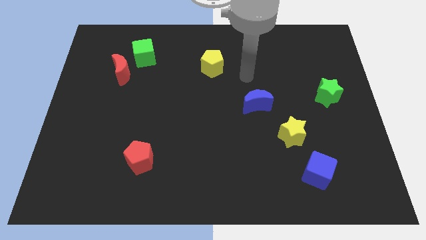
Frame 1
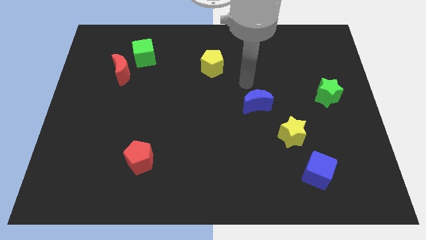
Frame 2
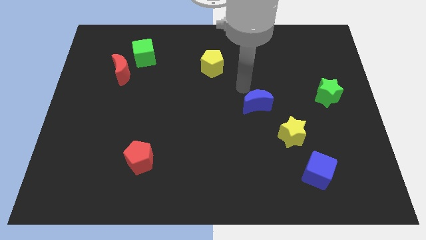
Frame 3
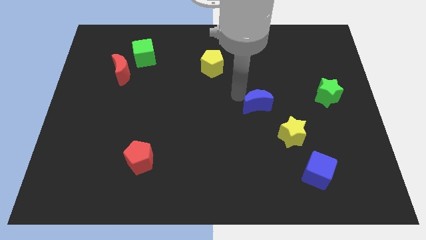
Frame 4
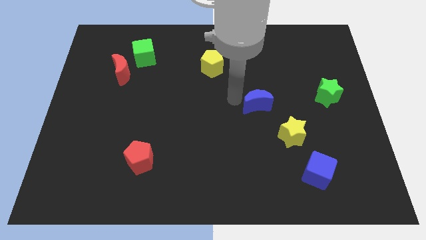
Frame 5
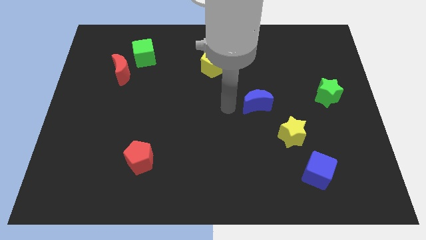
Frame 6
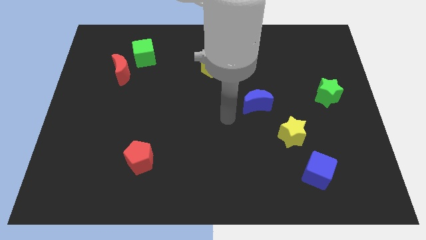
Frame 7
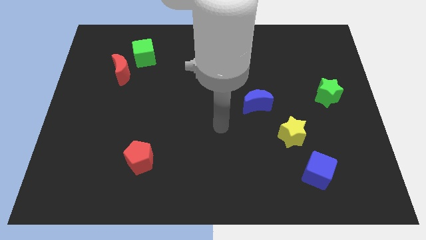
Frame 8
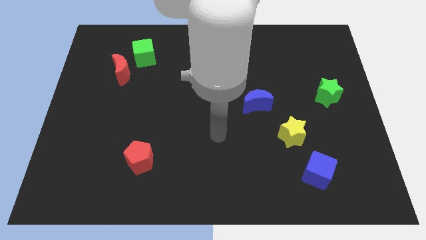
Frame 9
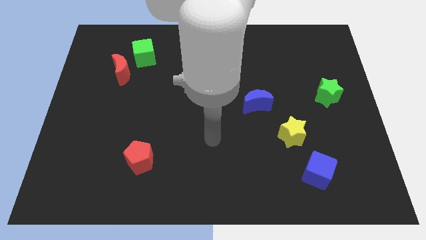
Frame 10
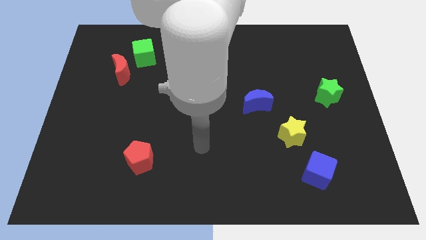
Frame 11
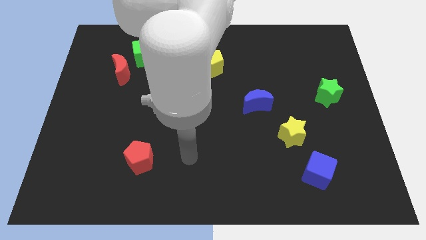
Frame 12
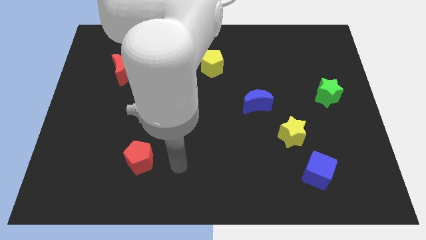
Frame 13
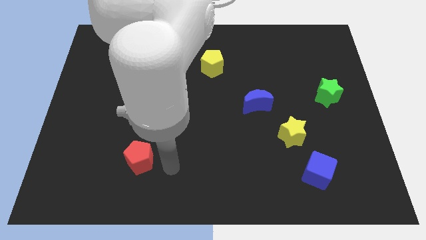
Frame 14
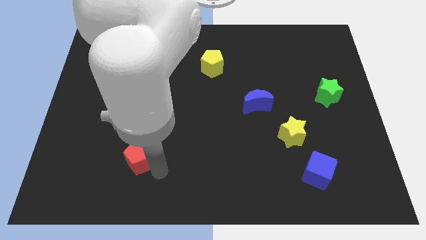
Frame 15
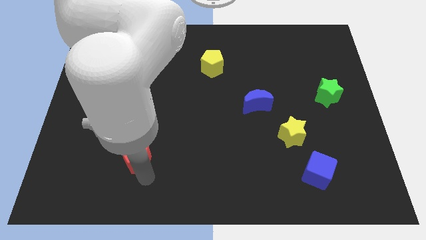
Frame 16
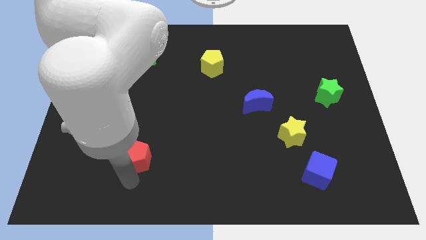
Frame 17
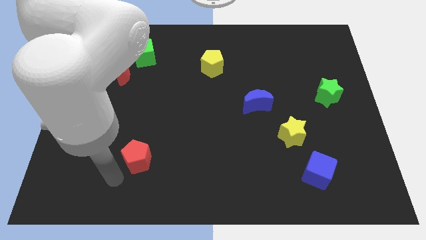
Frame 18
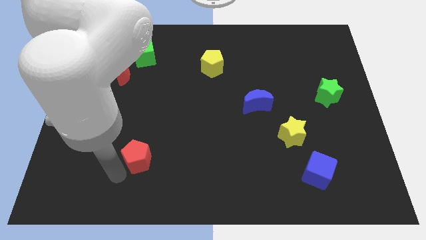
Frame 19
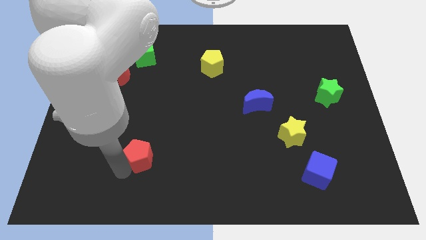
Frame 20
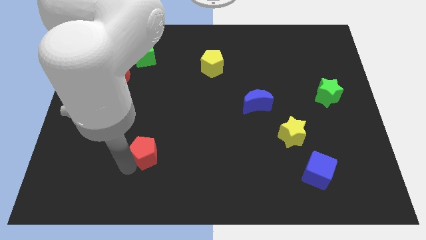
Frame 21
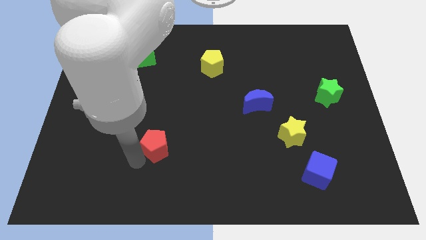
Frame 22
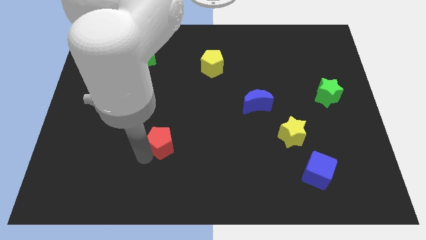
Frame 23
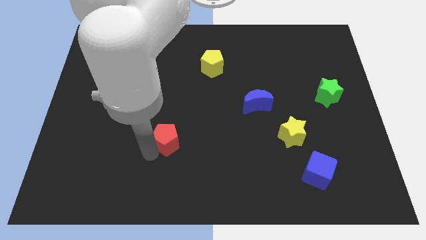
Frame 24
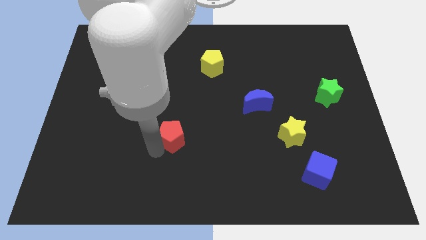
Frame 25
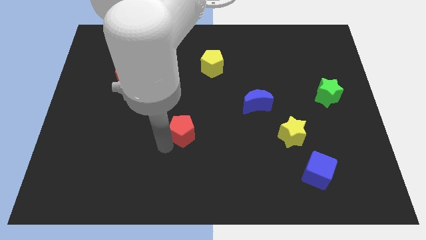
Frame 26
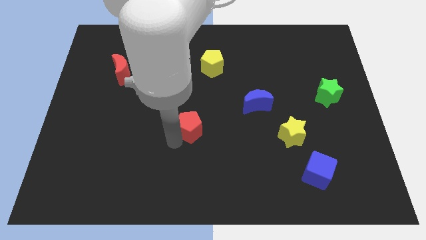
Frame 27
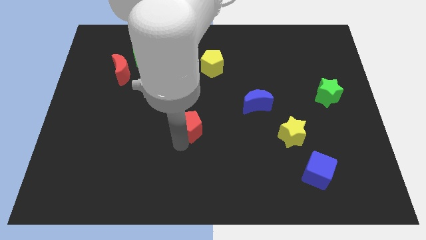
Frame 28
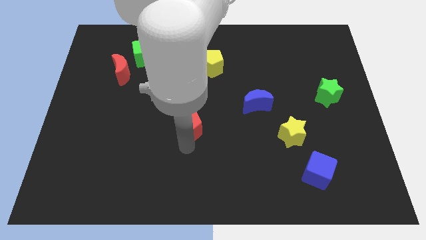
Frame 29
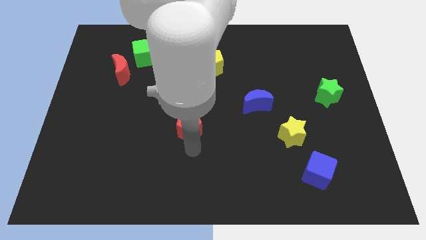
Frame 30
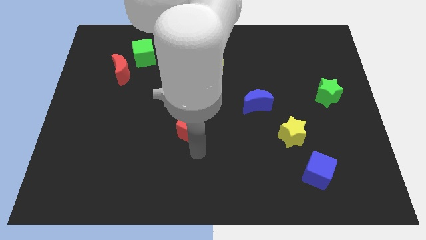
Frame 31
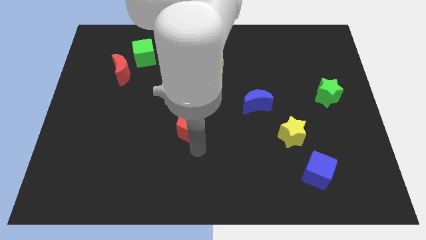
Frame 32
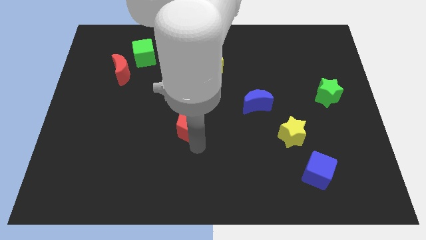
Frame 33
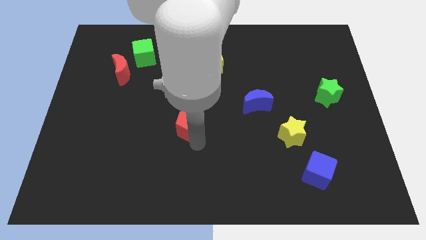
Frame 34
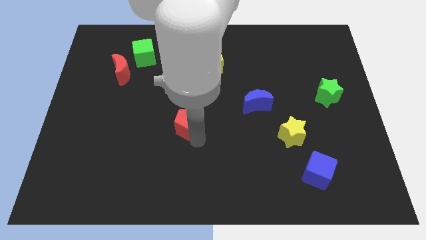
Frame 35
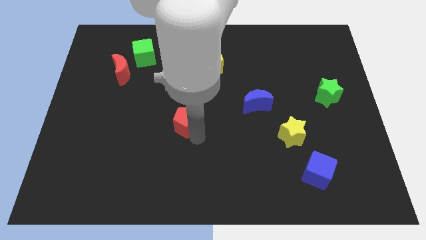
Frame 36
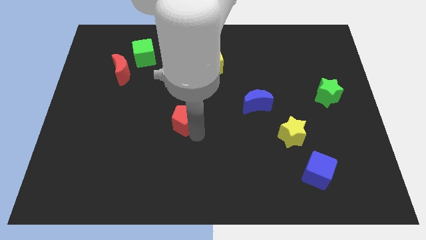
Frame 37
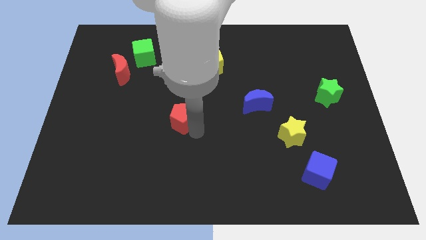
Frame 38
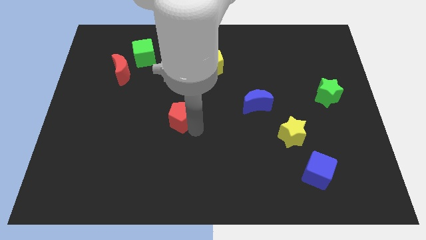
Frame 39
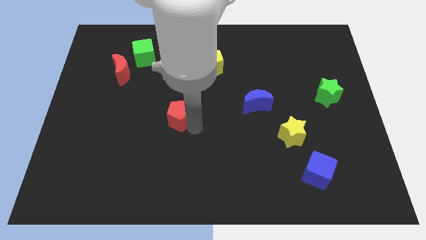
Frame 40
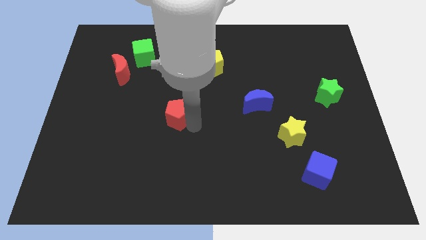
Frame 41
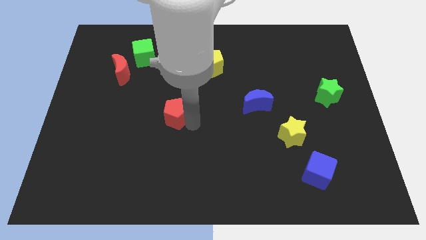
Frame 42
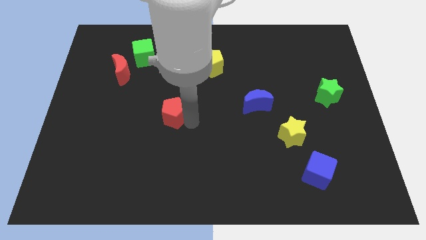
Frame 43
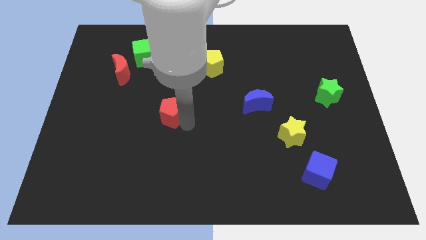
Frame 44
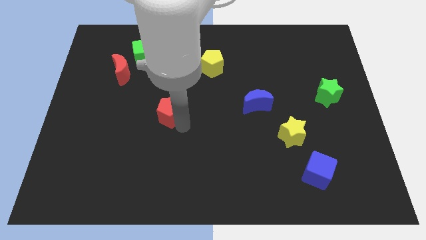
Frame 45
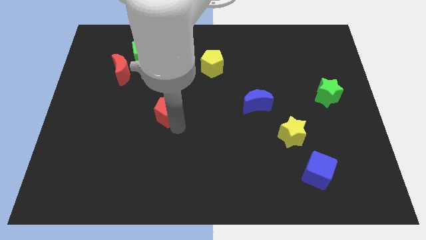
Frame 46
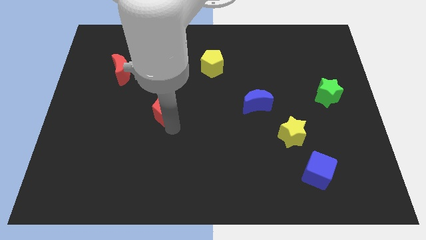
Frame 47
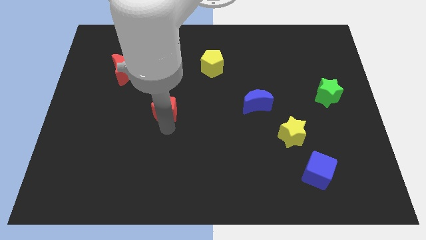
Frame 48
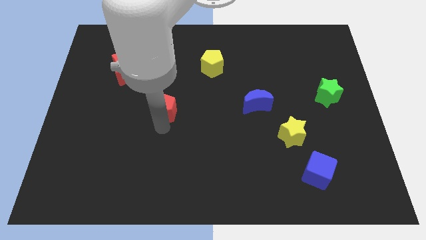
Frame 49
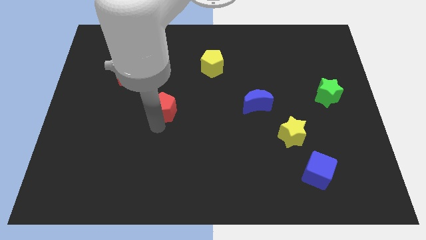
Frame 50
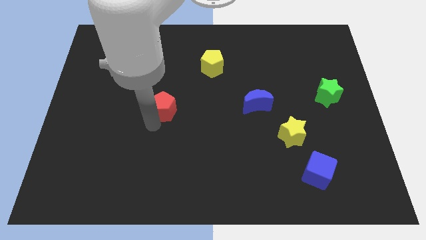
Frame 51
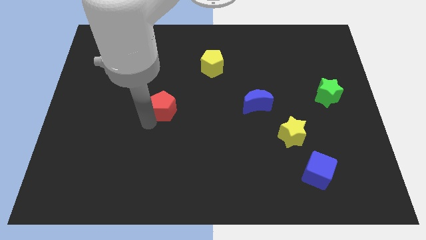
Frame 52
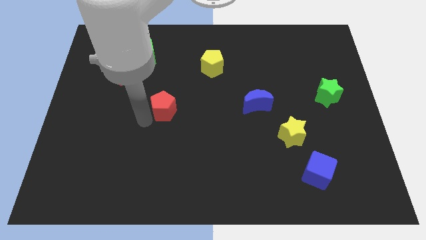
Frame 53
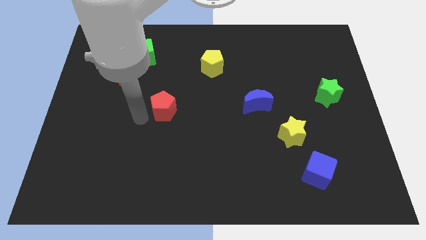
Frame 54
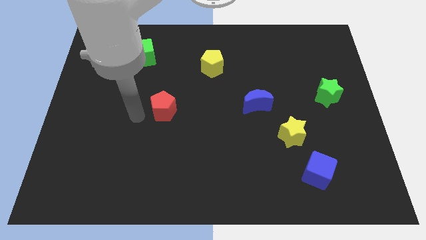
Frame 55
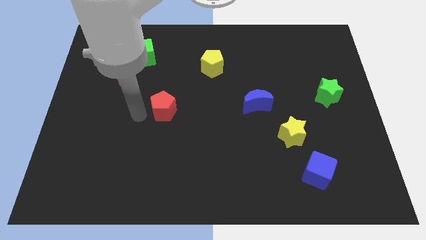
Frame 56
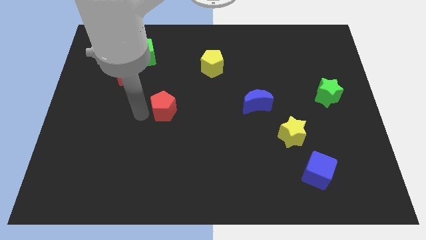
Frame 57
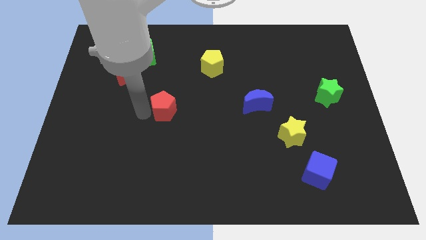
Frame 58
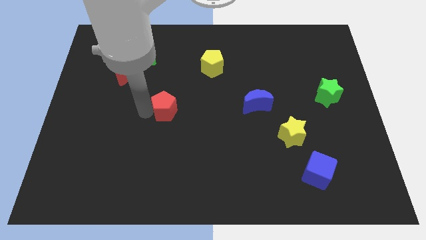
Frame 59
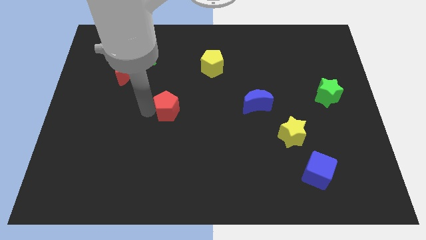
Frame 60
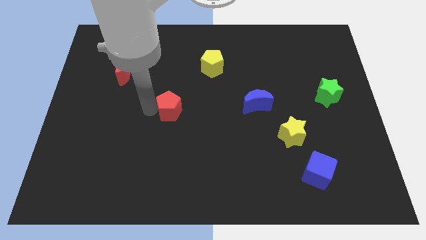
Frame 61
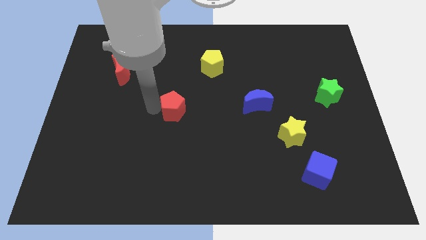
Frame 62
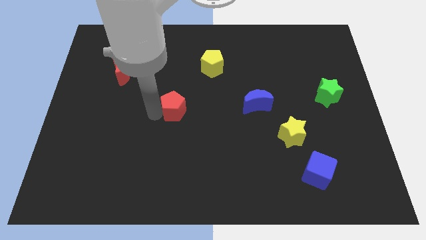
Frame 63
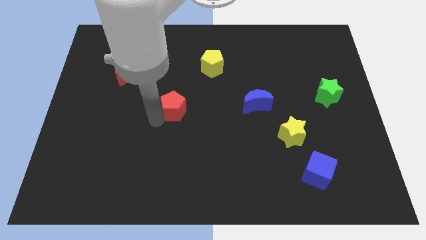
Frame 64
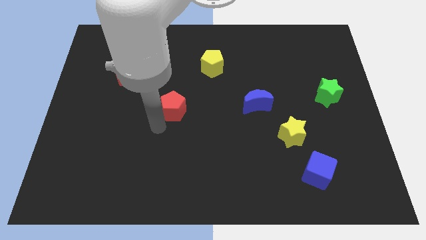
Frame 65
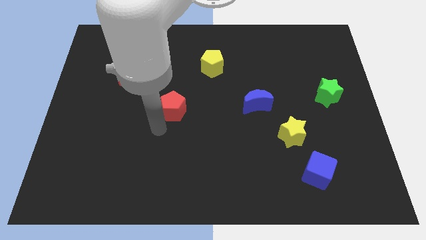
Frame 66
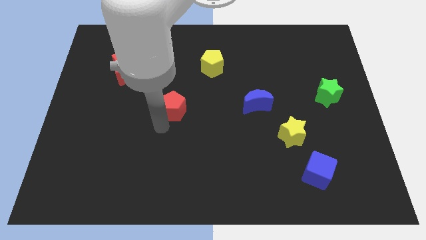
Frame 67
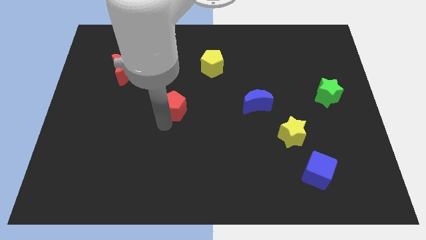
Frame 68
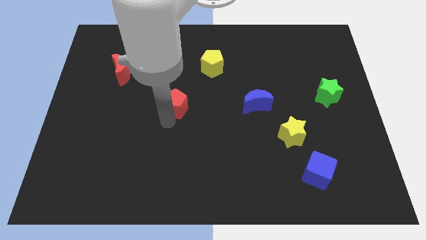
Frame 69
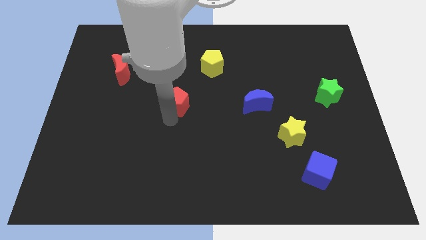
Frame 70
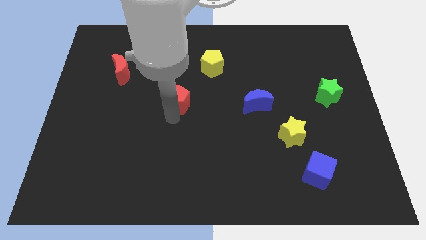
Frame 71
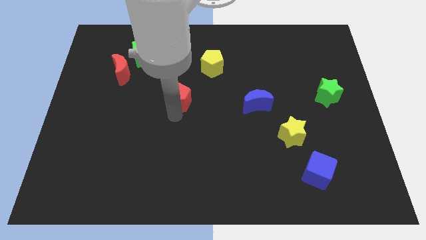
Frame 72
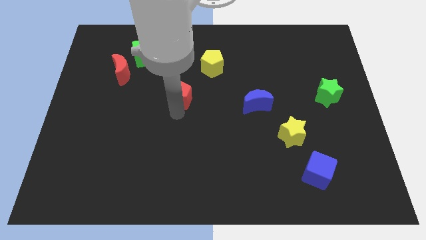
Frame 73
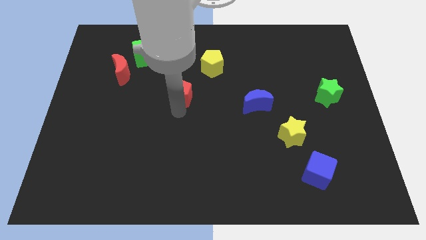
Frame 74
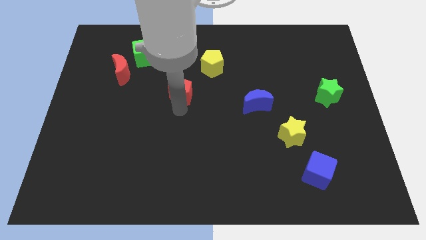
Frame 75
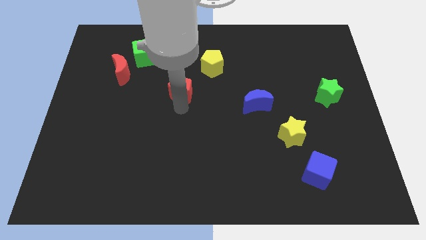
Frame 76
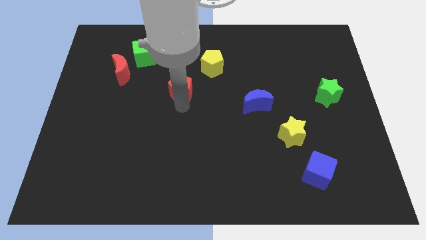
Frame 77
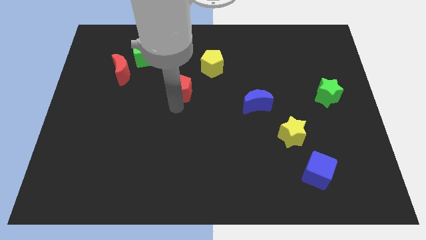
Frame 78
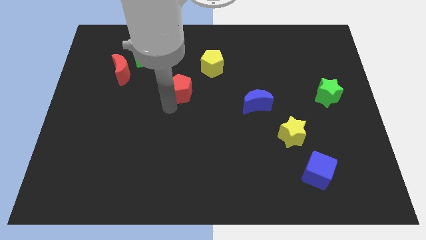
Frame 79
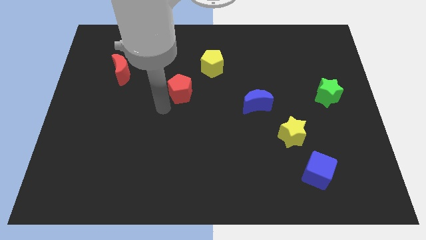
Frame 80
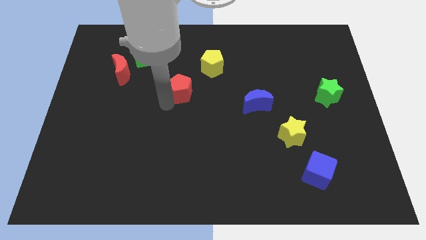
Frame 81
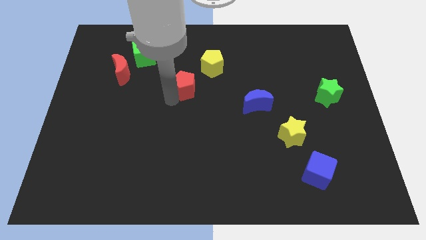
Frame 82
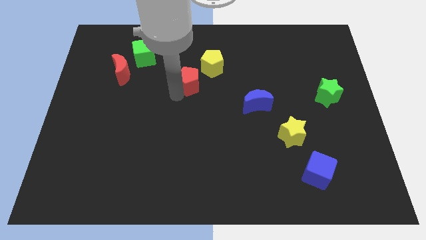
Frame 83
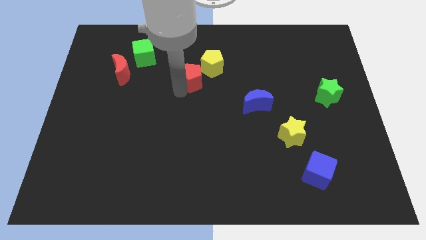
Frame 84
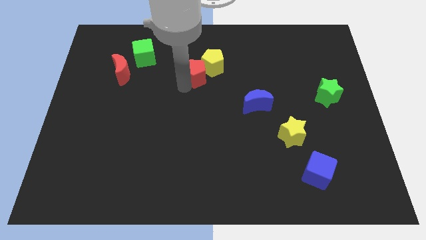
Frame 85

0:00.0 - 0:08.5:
move the red pentagon towards the yellow pentagon
